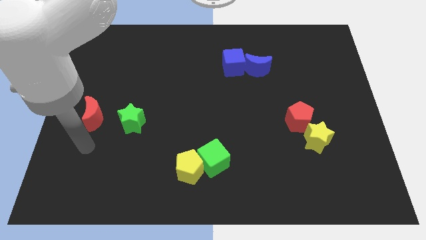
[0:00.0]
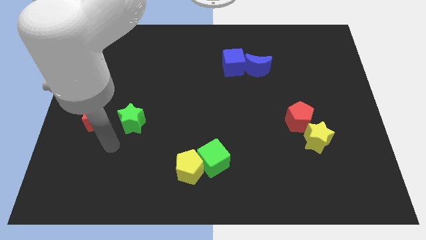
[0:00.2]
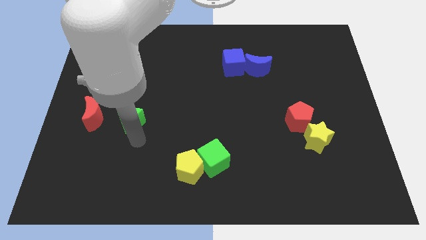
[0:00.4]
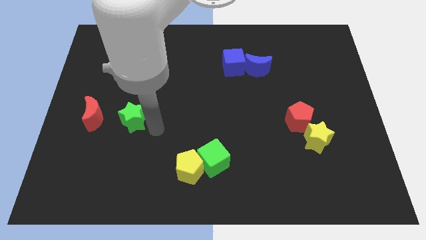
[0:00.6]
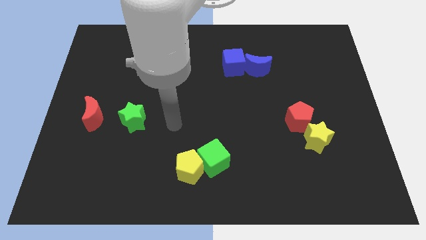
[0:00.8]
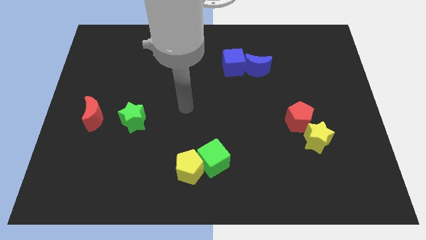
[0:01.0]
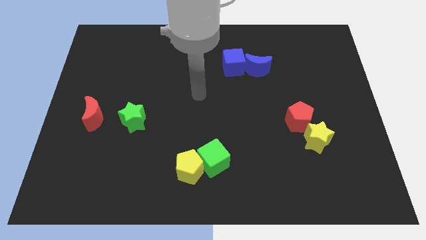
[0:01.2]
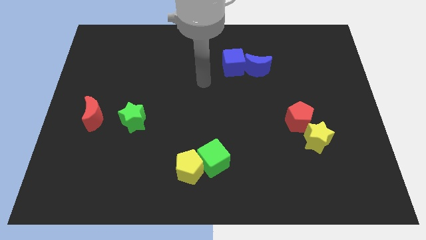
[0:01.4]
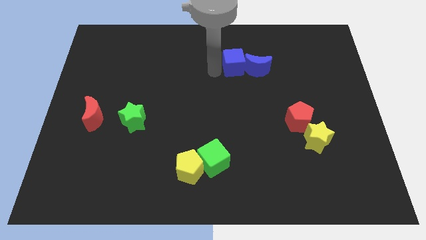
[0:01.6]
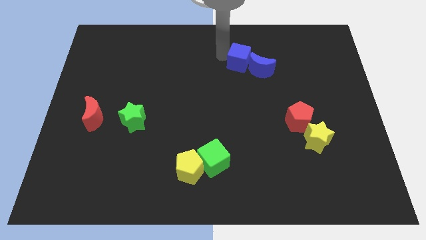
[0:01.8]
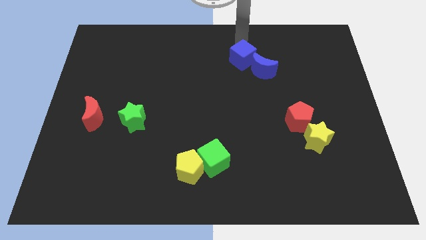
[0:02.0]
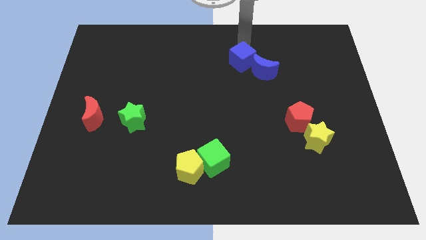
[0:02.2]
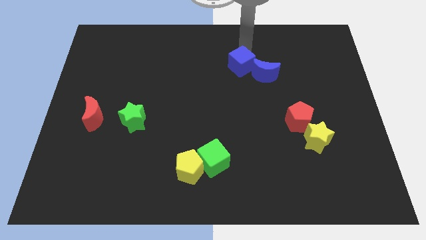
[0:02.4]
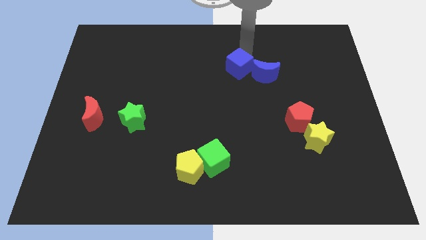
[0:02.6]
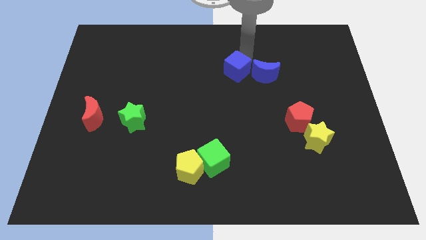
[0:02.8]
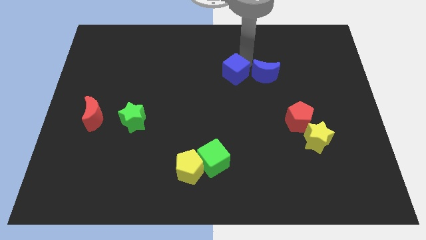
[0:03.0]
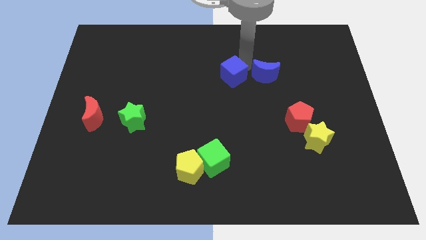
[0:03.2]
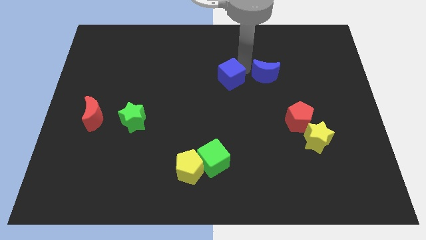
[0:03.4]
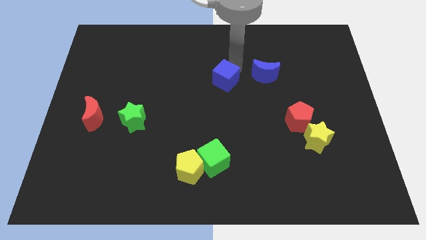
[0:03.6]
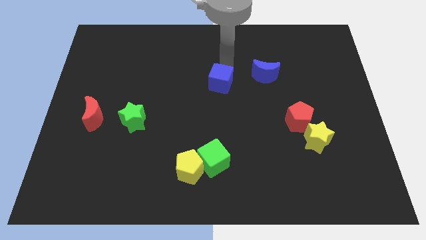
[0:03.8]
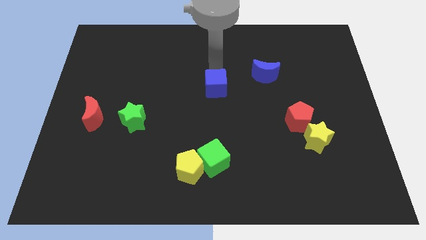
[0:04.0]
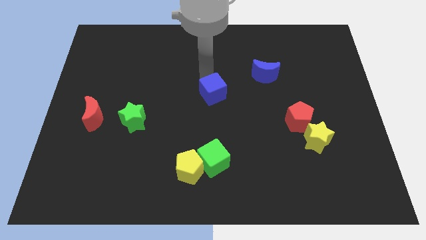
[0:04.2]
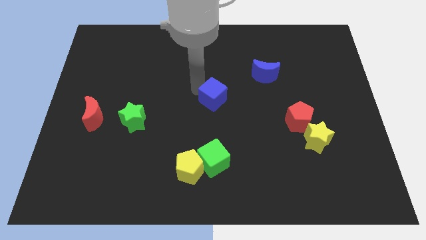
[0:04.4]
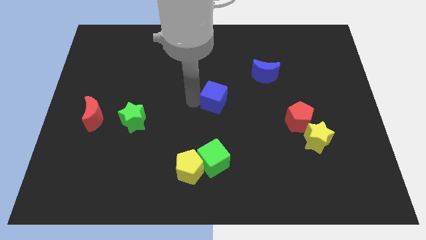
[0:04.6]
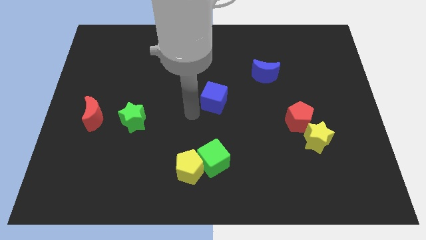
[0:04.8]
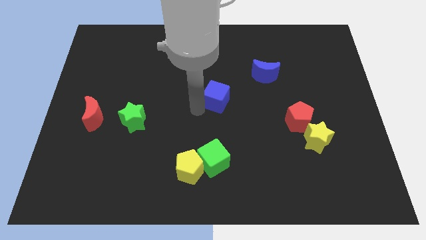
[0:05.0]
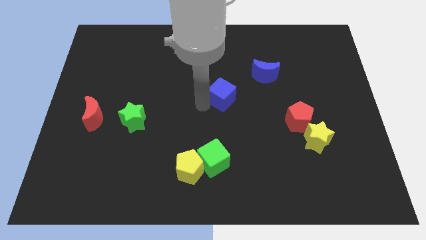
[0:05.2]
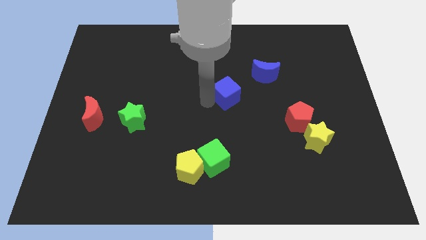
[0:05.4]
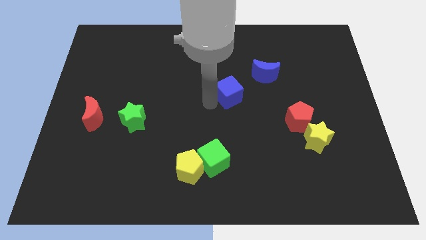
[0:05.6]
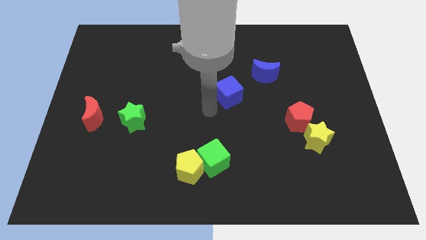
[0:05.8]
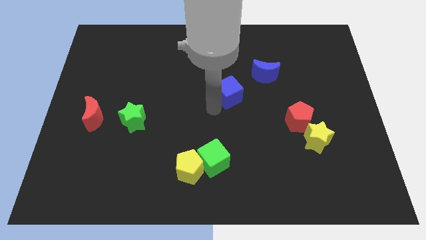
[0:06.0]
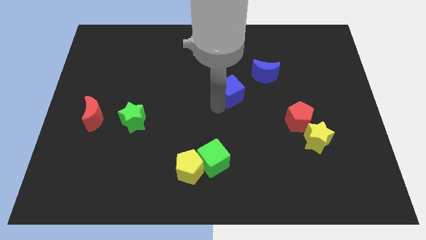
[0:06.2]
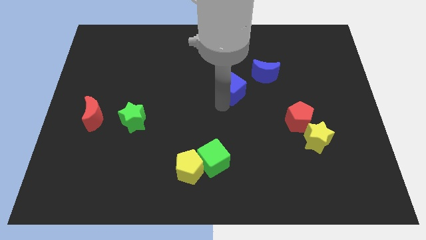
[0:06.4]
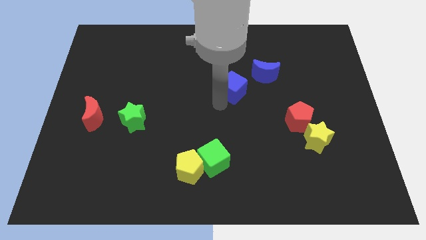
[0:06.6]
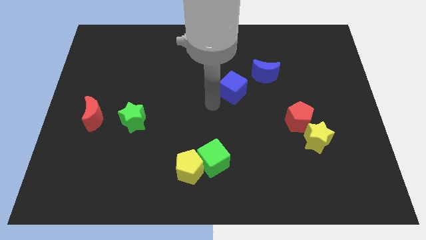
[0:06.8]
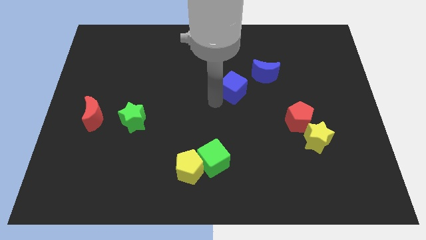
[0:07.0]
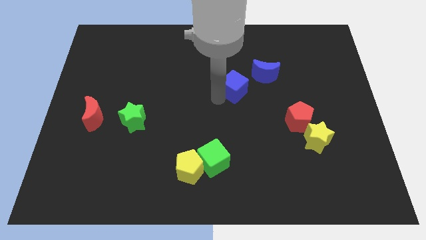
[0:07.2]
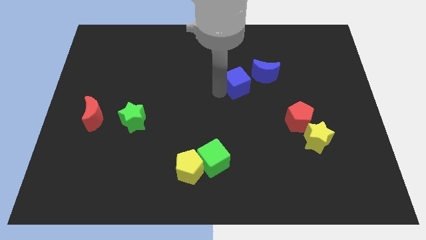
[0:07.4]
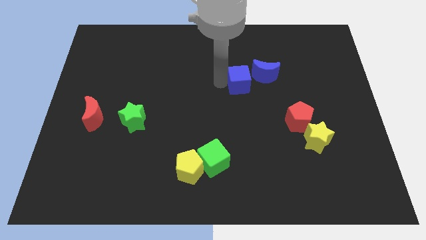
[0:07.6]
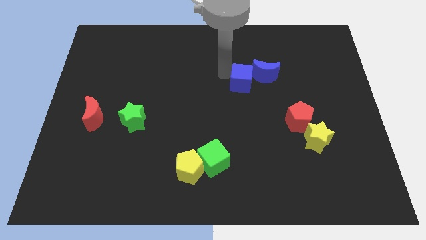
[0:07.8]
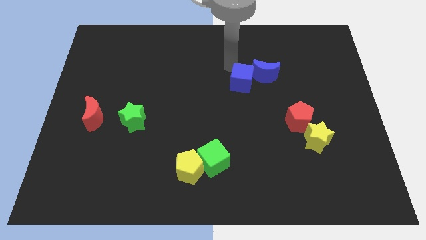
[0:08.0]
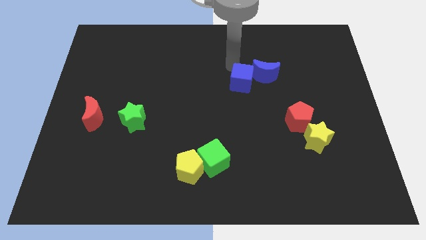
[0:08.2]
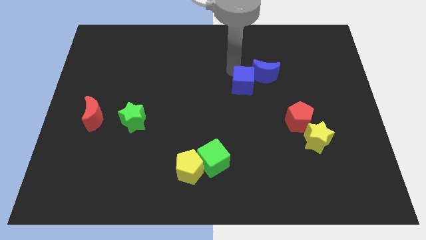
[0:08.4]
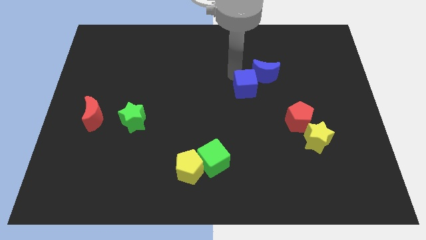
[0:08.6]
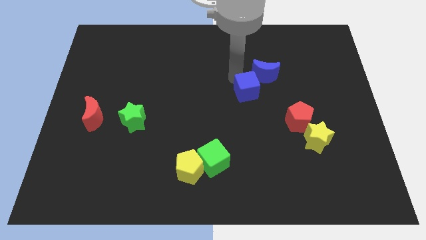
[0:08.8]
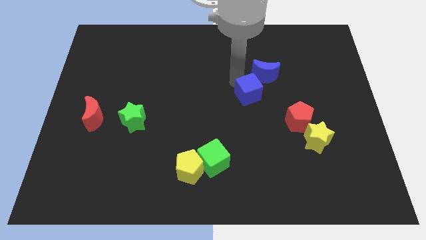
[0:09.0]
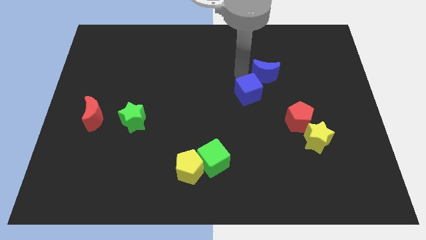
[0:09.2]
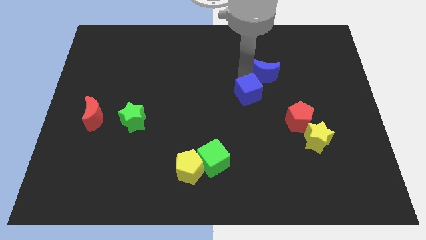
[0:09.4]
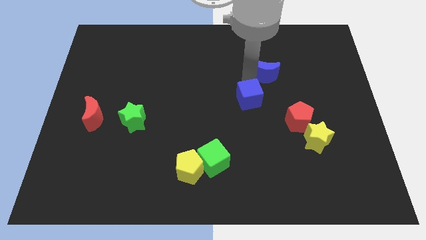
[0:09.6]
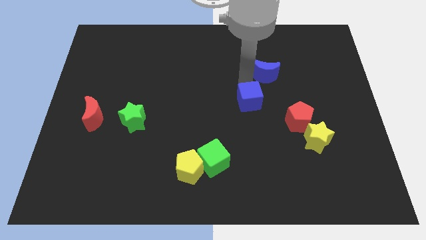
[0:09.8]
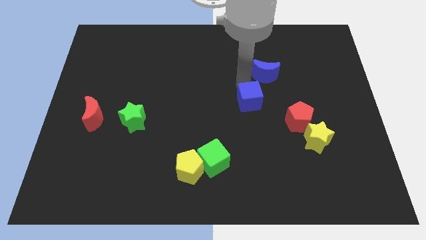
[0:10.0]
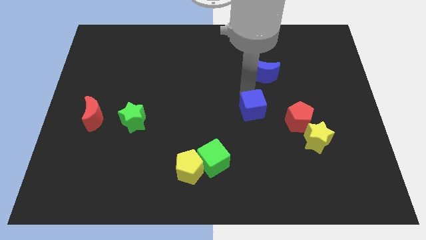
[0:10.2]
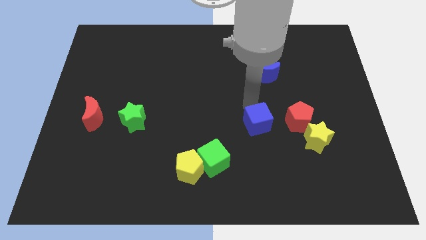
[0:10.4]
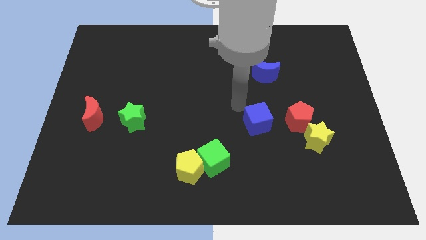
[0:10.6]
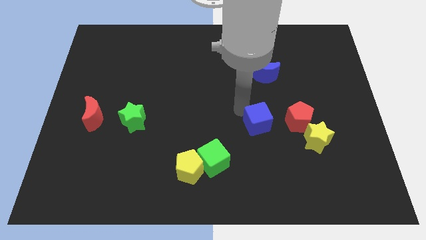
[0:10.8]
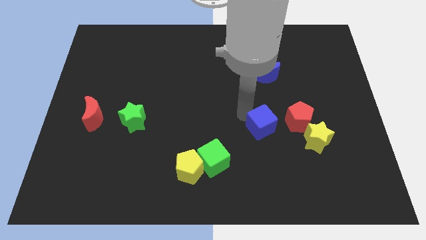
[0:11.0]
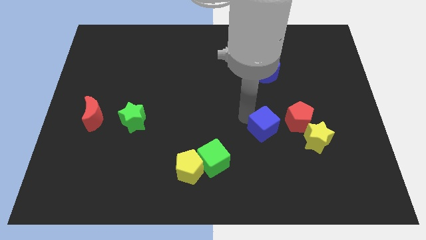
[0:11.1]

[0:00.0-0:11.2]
put the blue cube diagonally down and to the left of the red pentagon

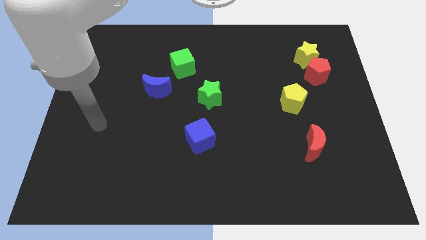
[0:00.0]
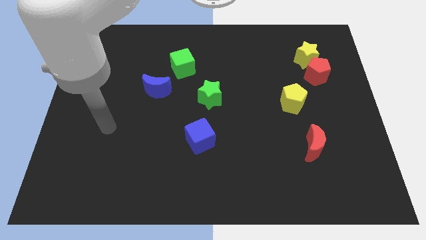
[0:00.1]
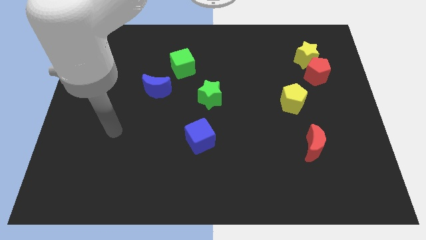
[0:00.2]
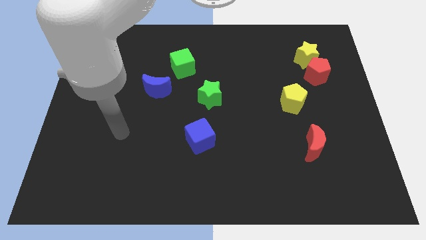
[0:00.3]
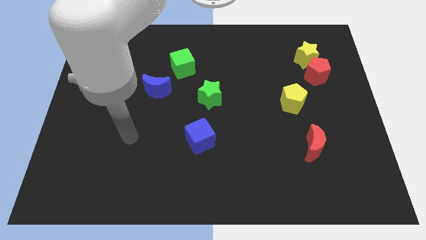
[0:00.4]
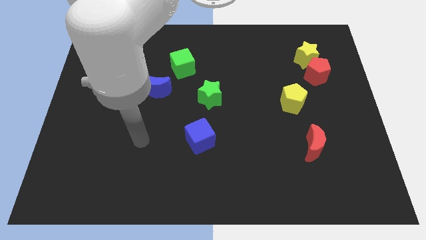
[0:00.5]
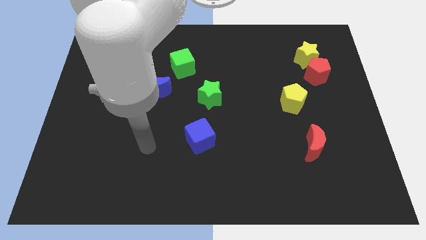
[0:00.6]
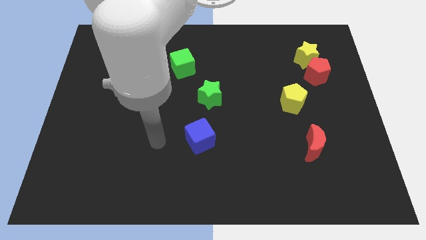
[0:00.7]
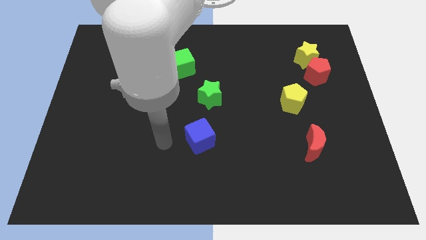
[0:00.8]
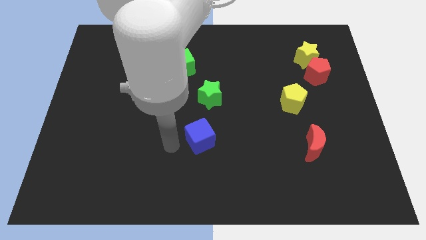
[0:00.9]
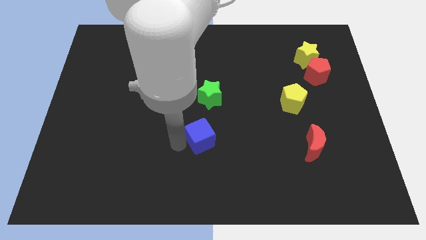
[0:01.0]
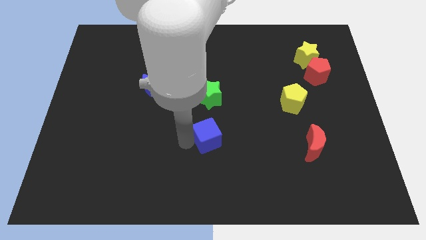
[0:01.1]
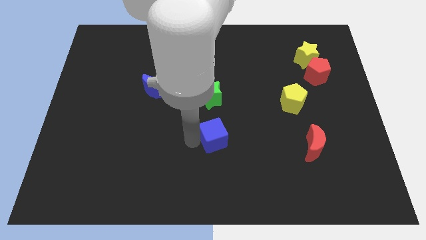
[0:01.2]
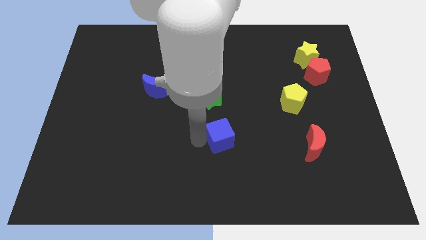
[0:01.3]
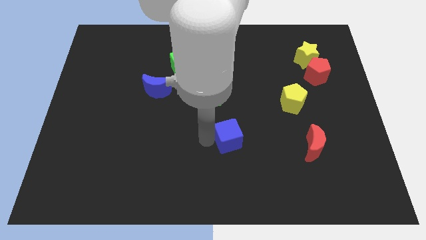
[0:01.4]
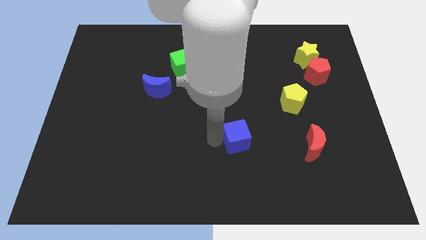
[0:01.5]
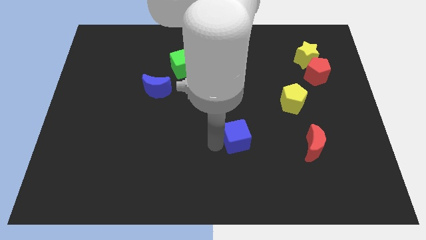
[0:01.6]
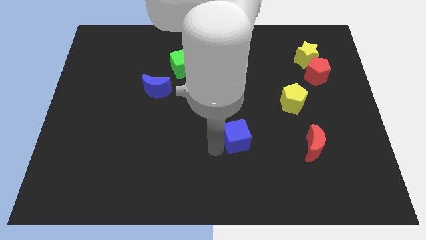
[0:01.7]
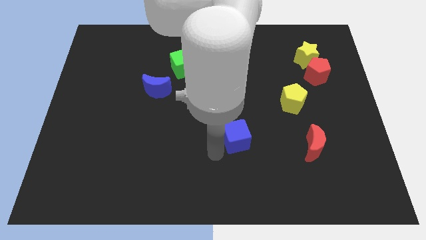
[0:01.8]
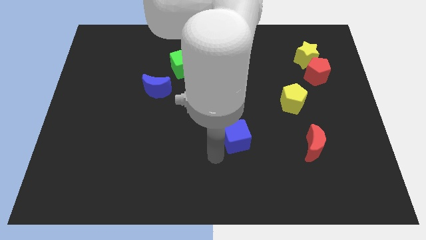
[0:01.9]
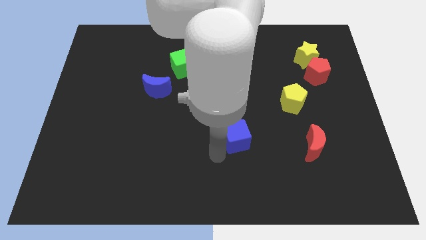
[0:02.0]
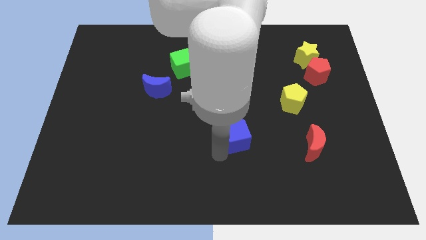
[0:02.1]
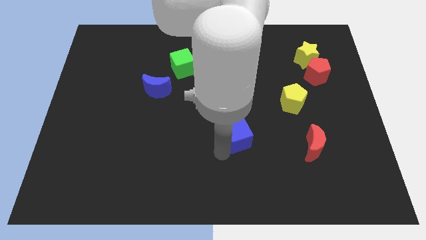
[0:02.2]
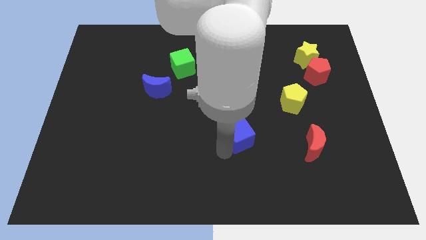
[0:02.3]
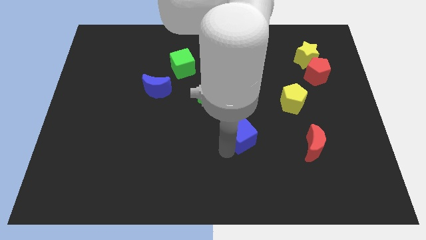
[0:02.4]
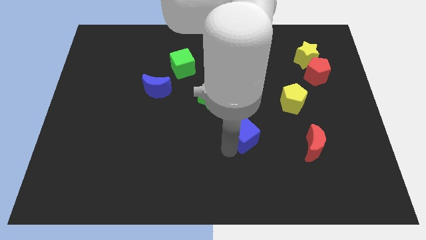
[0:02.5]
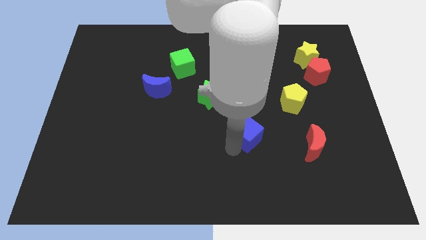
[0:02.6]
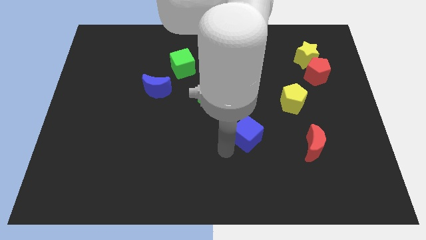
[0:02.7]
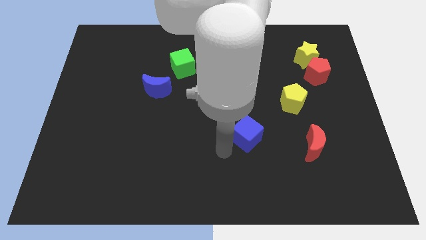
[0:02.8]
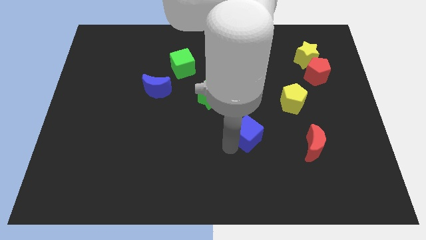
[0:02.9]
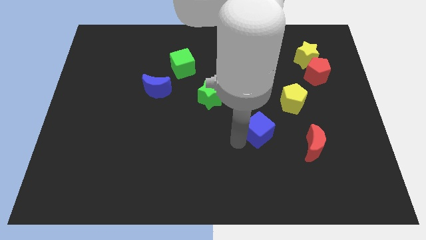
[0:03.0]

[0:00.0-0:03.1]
slide the blue cube diagonally down and to the left of the yellow pentagon
